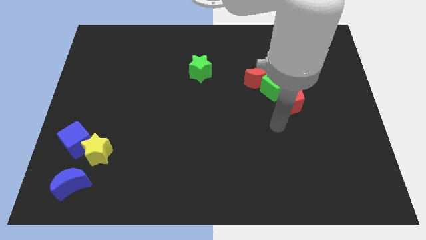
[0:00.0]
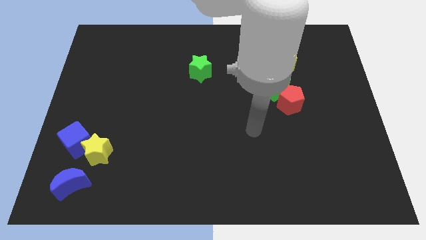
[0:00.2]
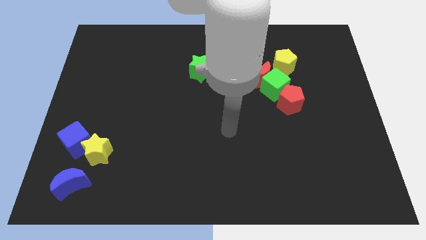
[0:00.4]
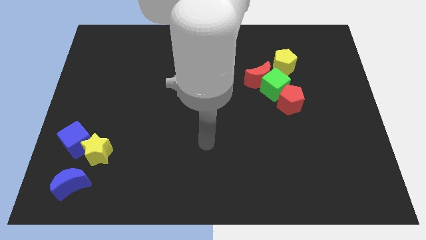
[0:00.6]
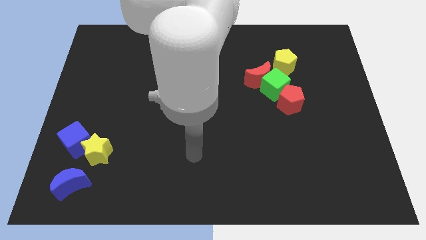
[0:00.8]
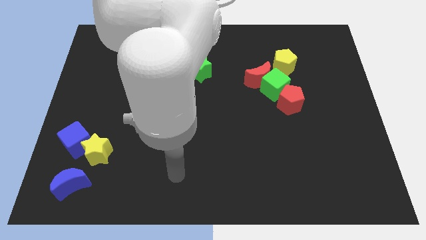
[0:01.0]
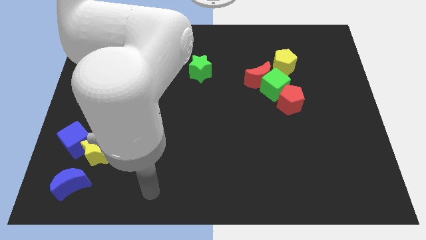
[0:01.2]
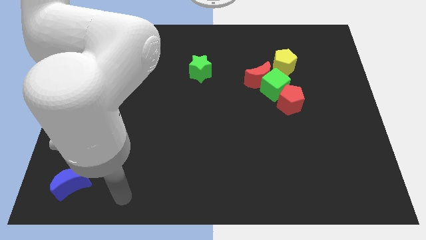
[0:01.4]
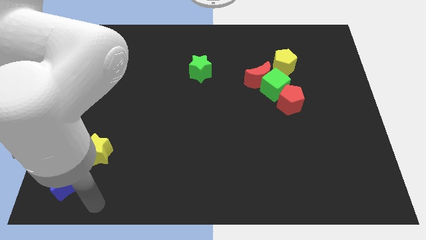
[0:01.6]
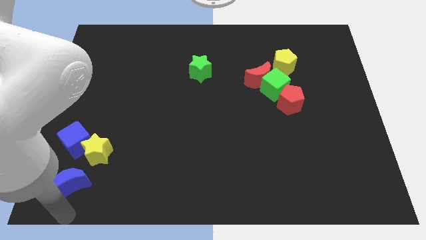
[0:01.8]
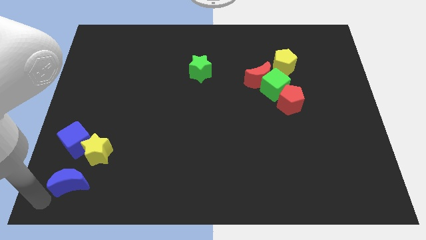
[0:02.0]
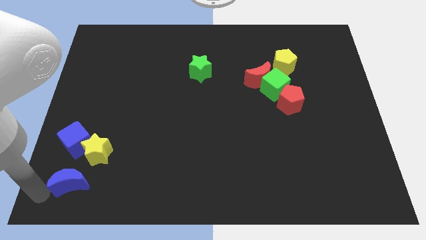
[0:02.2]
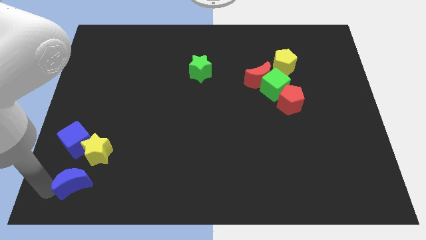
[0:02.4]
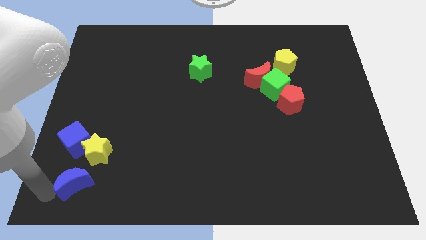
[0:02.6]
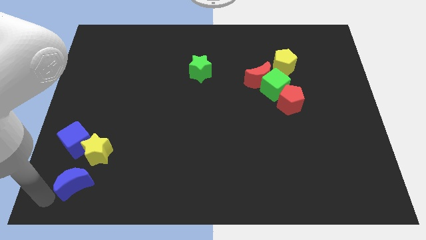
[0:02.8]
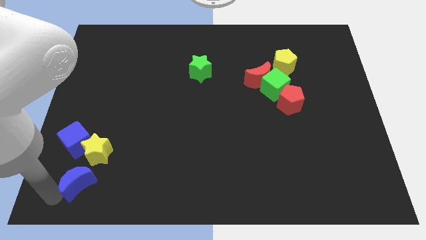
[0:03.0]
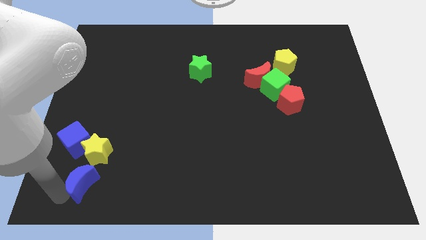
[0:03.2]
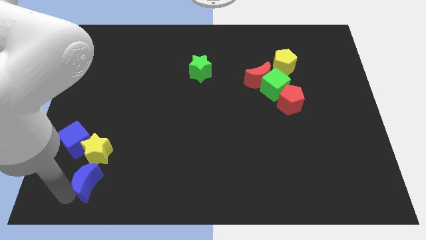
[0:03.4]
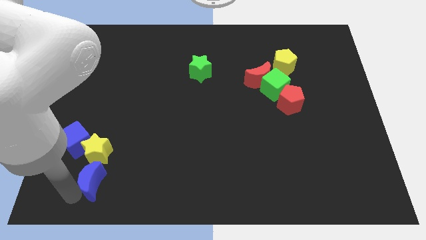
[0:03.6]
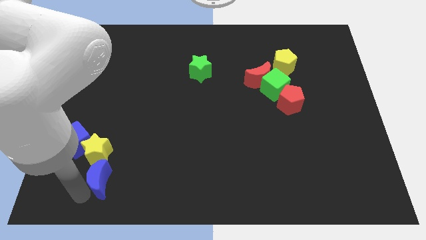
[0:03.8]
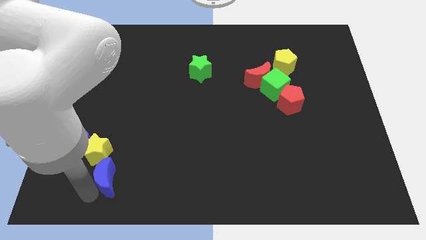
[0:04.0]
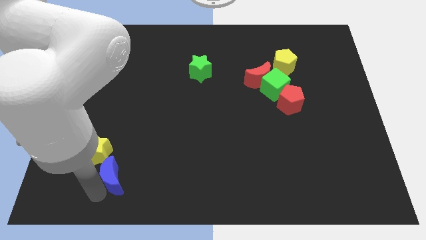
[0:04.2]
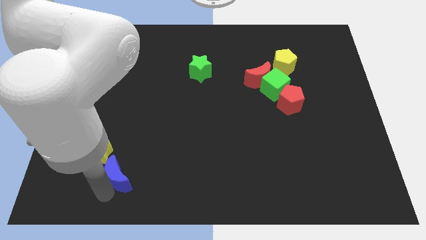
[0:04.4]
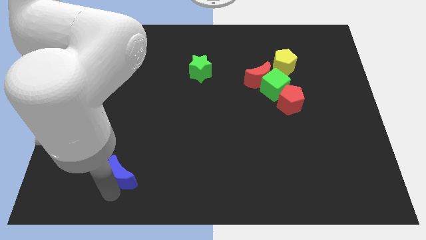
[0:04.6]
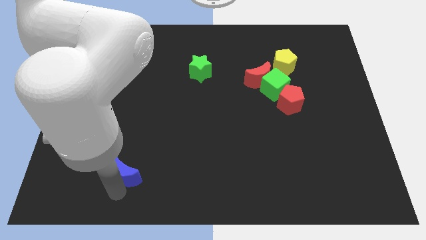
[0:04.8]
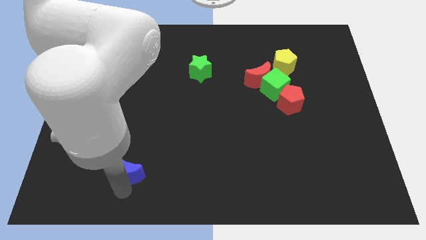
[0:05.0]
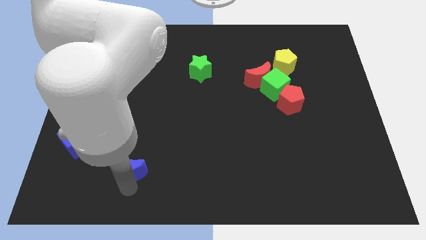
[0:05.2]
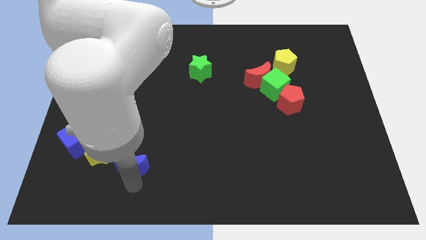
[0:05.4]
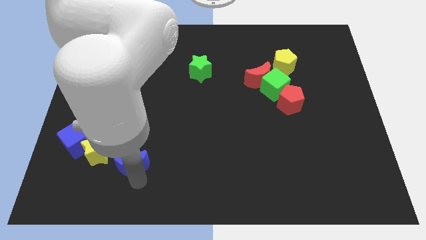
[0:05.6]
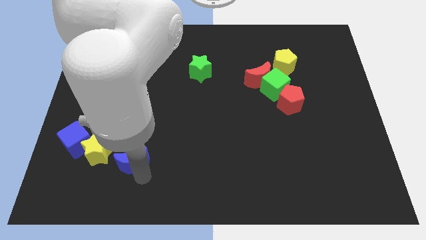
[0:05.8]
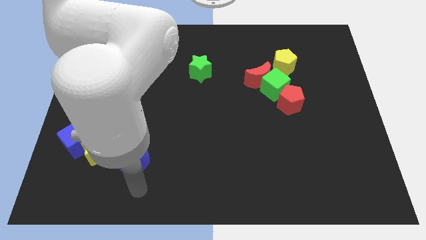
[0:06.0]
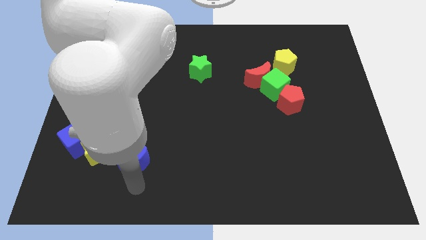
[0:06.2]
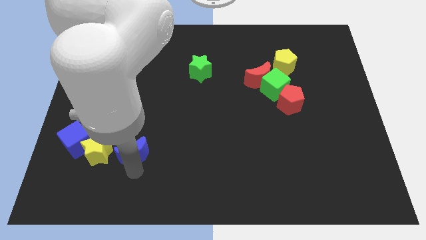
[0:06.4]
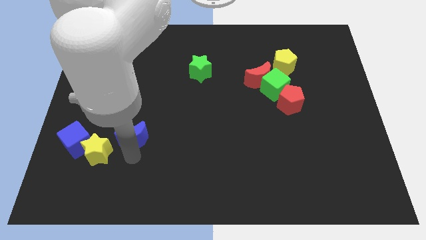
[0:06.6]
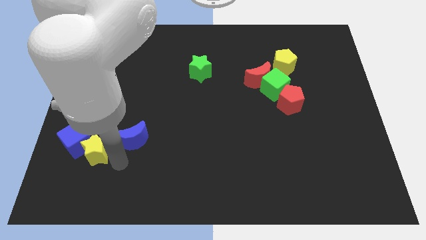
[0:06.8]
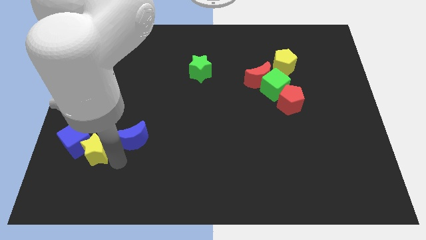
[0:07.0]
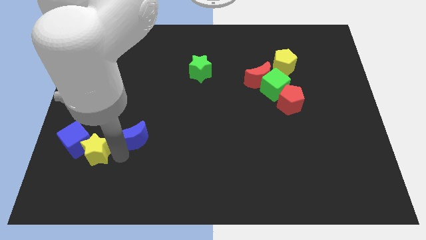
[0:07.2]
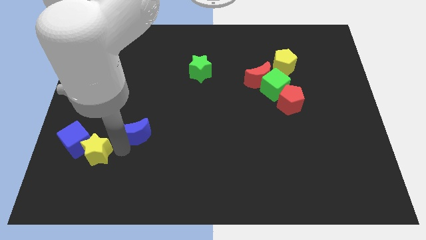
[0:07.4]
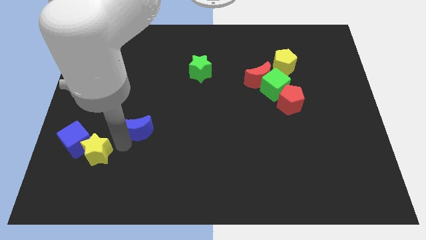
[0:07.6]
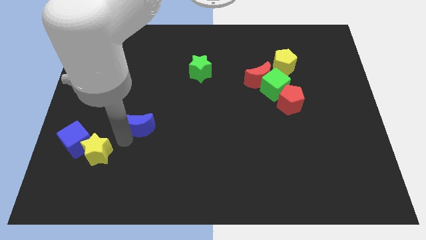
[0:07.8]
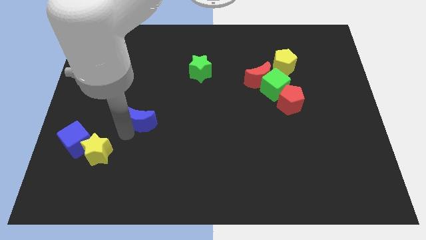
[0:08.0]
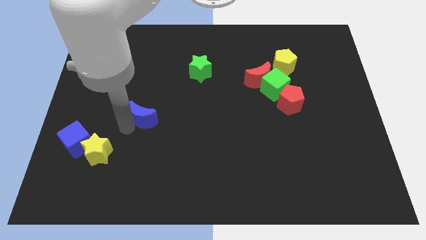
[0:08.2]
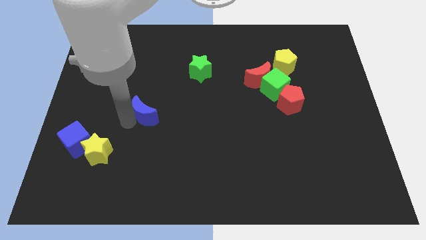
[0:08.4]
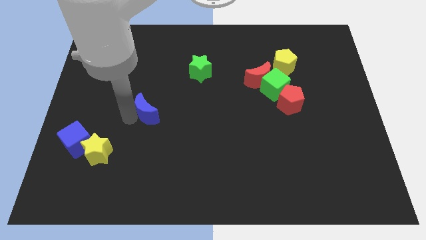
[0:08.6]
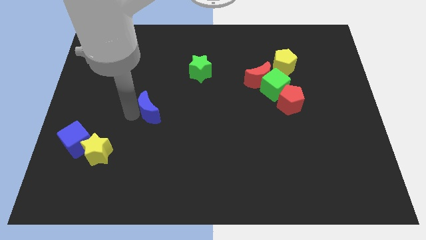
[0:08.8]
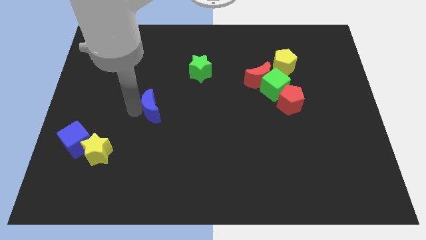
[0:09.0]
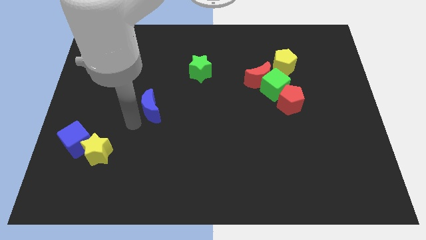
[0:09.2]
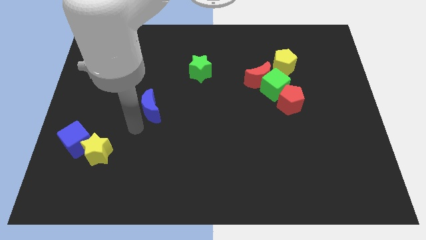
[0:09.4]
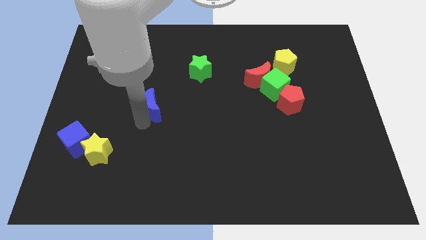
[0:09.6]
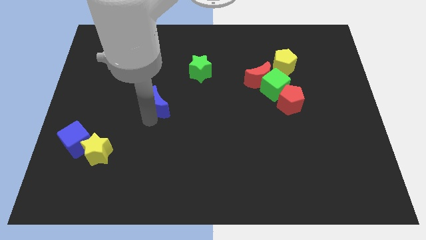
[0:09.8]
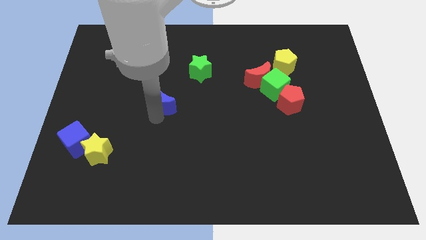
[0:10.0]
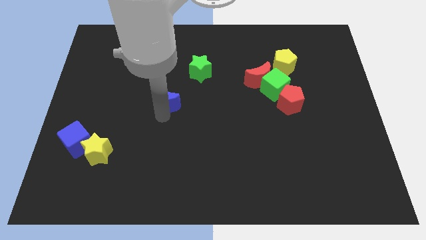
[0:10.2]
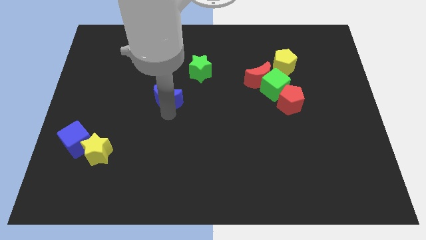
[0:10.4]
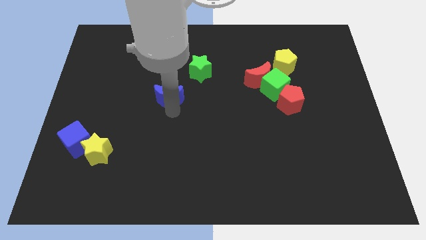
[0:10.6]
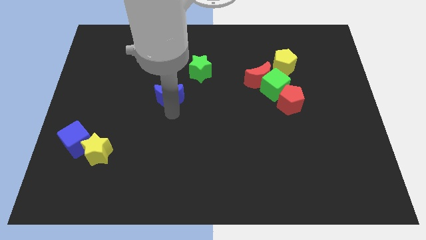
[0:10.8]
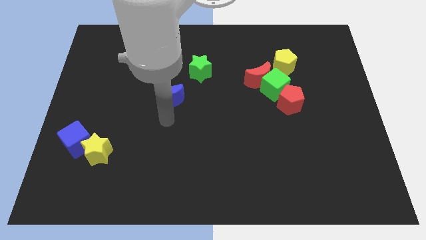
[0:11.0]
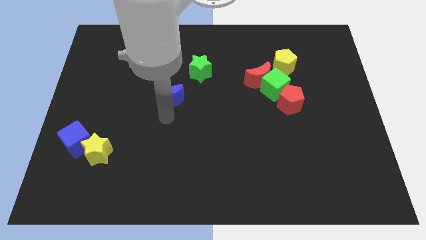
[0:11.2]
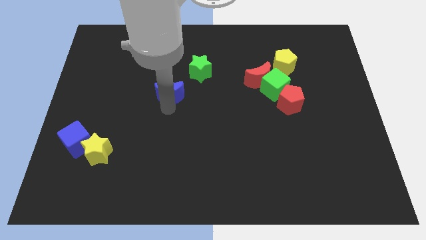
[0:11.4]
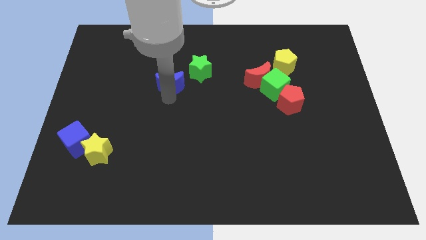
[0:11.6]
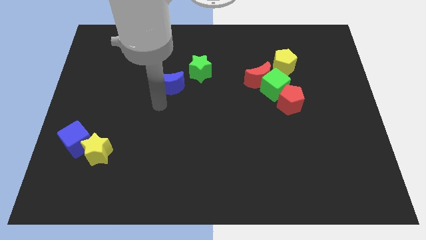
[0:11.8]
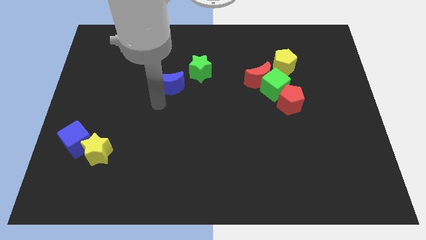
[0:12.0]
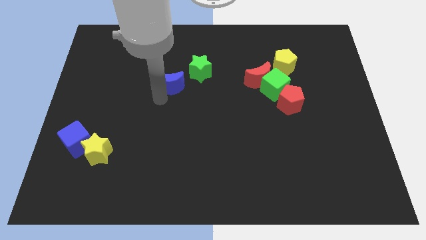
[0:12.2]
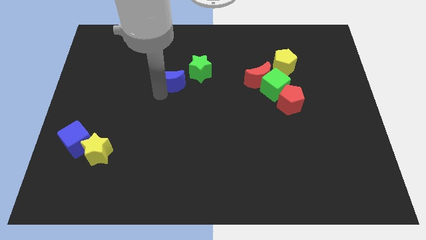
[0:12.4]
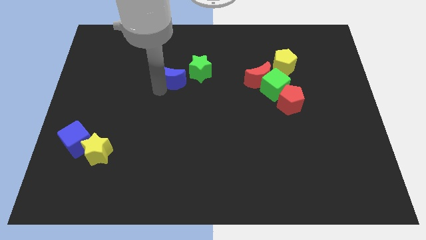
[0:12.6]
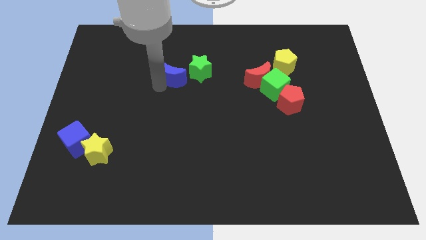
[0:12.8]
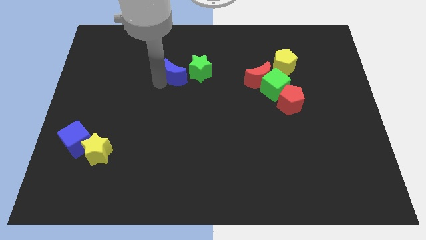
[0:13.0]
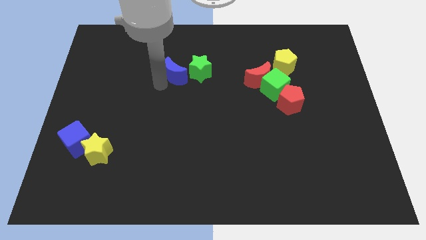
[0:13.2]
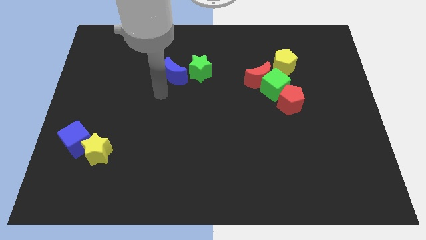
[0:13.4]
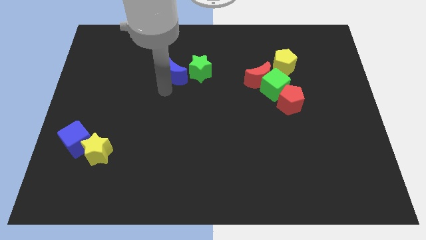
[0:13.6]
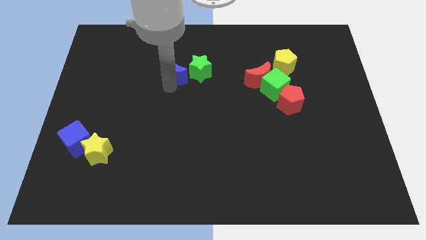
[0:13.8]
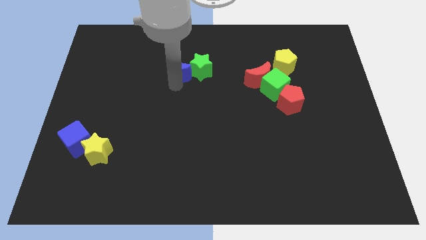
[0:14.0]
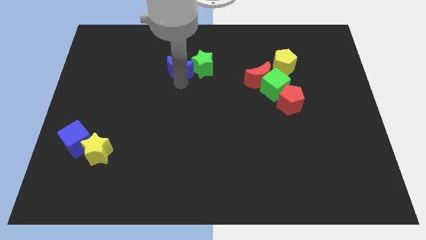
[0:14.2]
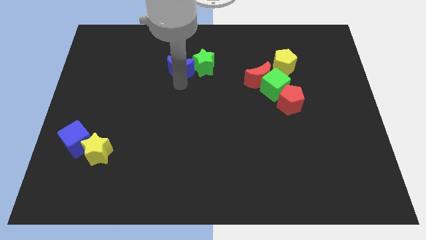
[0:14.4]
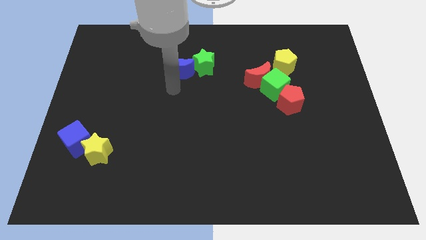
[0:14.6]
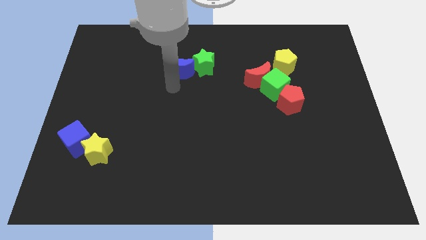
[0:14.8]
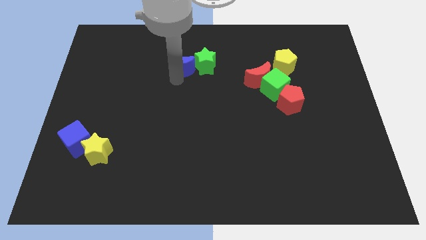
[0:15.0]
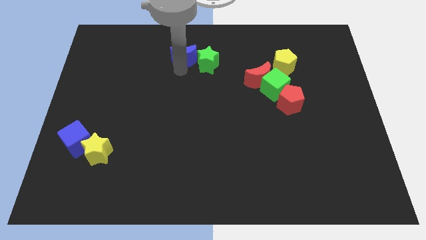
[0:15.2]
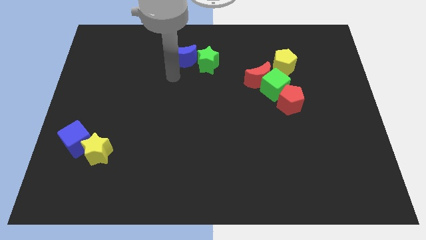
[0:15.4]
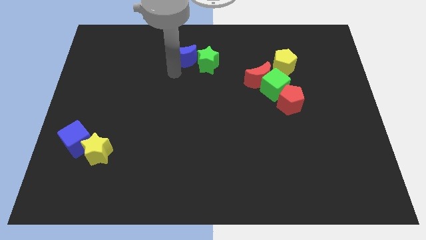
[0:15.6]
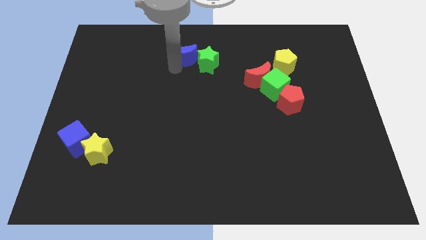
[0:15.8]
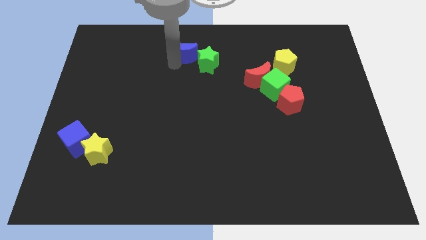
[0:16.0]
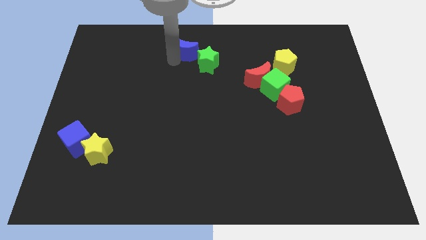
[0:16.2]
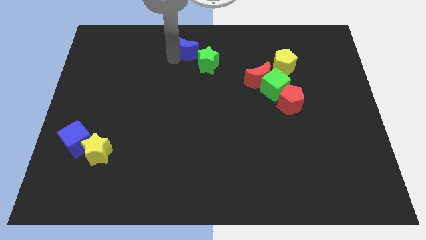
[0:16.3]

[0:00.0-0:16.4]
put the blue moon to the towards your base
